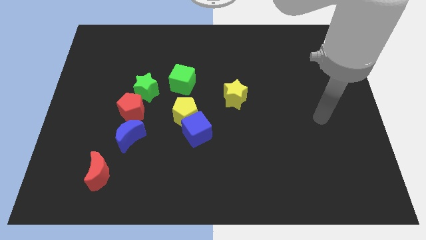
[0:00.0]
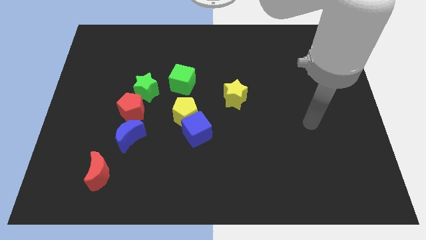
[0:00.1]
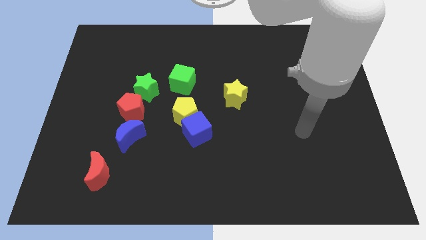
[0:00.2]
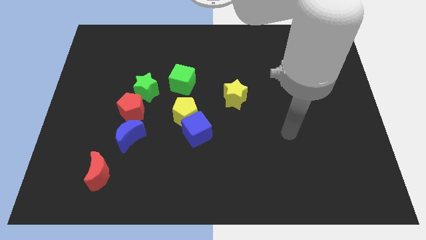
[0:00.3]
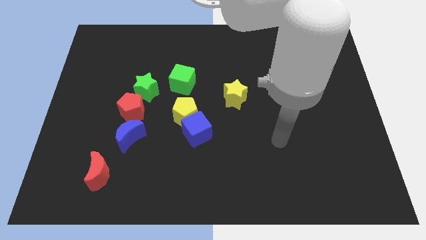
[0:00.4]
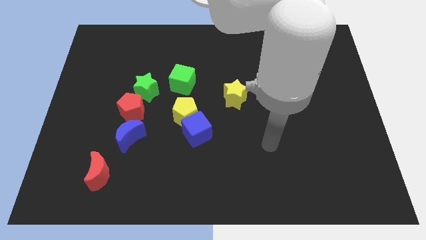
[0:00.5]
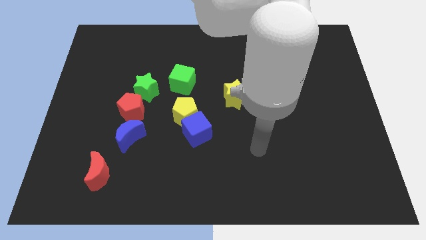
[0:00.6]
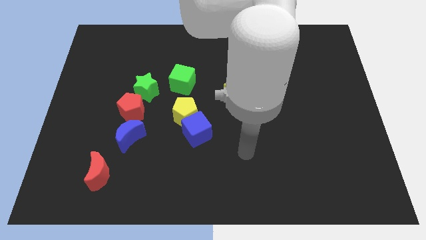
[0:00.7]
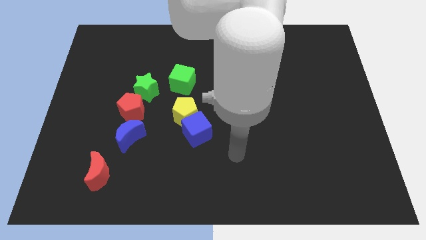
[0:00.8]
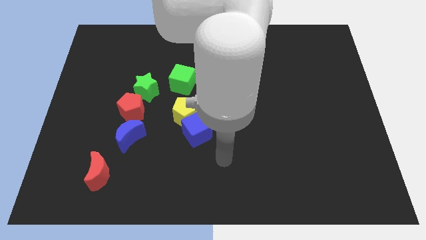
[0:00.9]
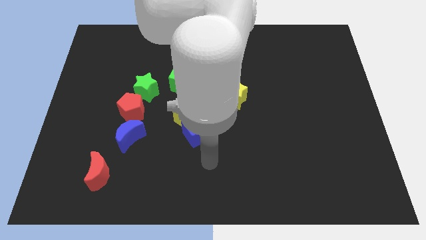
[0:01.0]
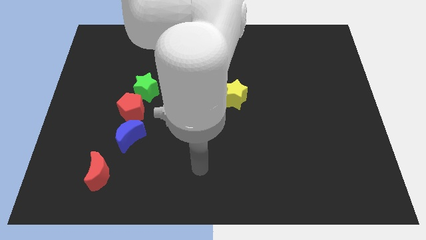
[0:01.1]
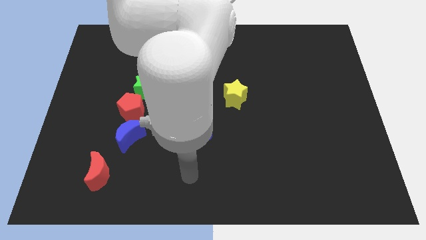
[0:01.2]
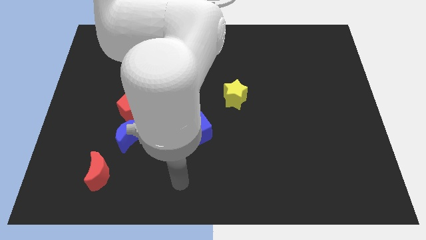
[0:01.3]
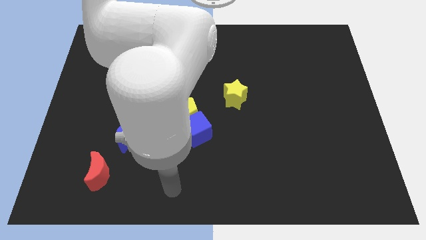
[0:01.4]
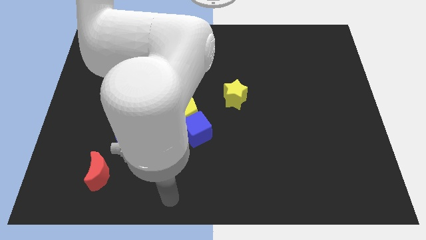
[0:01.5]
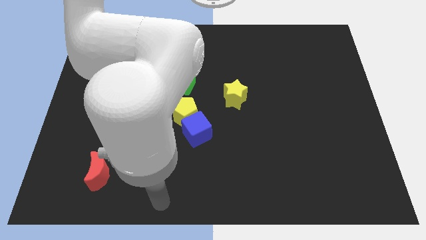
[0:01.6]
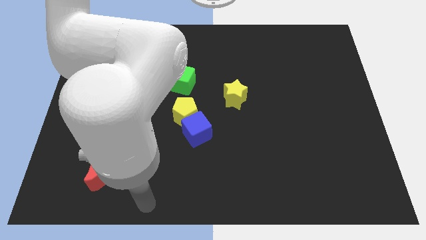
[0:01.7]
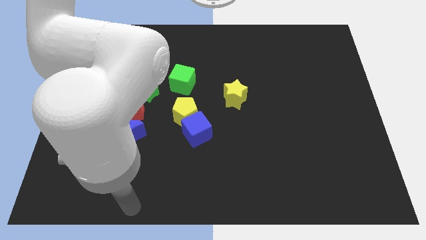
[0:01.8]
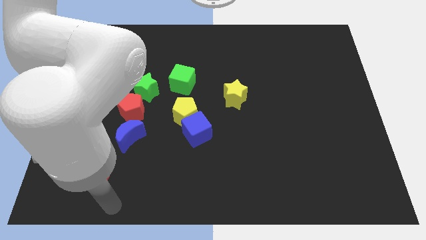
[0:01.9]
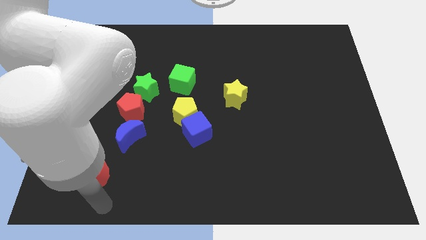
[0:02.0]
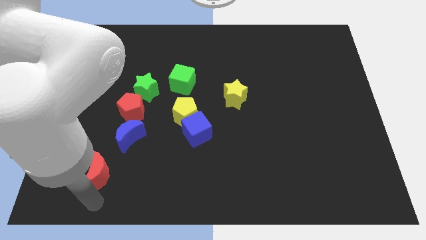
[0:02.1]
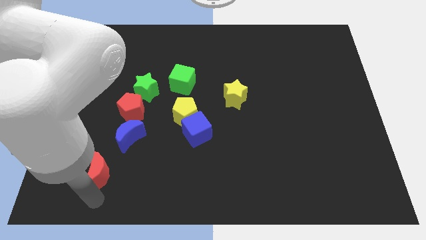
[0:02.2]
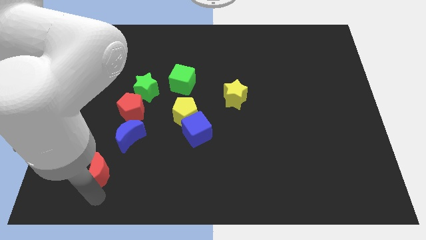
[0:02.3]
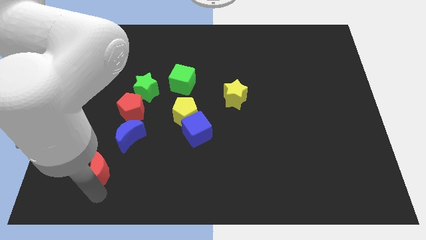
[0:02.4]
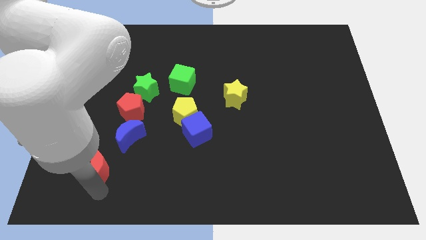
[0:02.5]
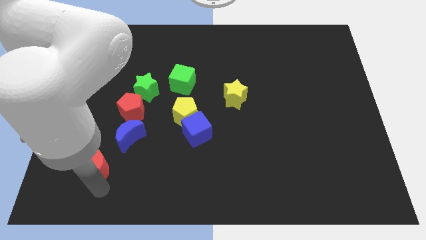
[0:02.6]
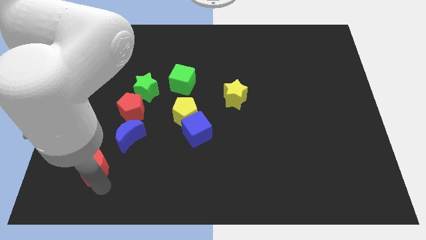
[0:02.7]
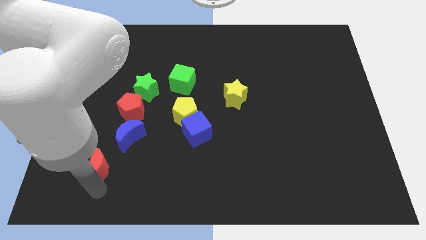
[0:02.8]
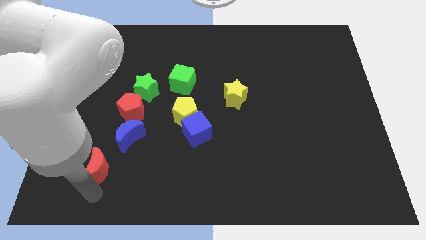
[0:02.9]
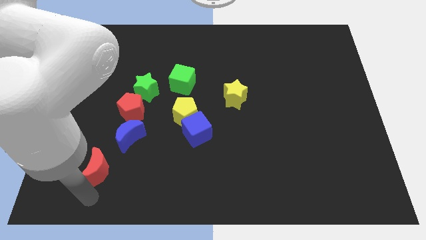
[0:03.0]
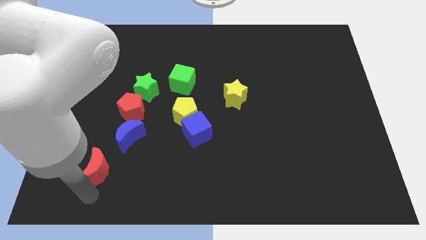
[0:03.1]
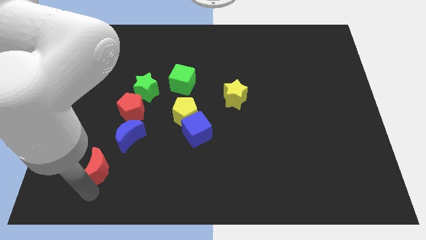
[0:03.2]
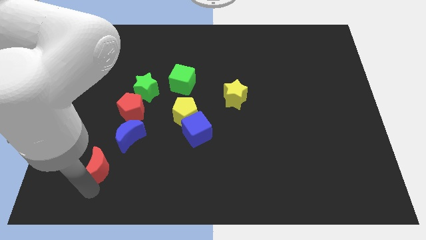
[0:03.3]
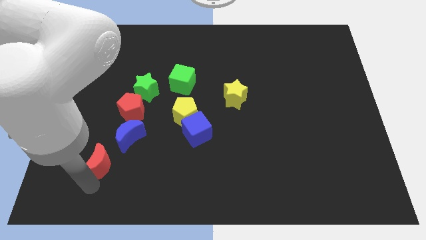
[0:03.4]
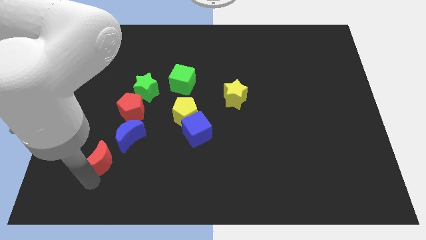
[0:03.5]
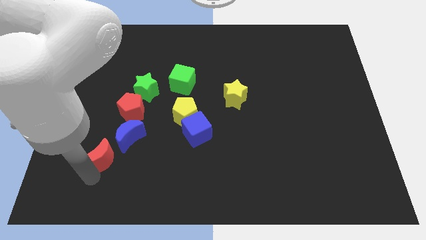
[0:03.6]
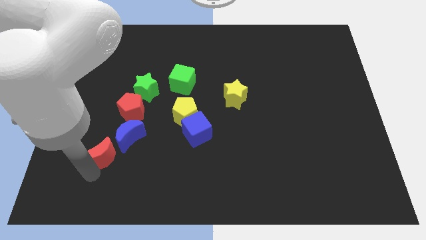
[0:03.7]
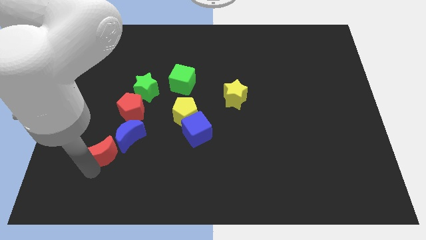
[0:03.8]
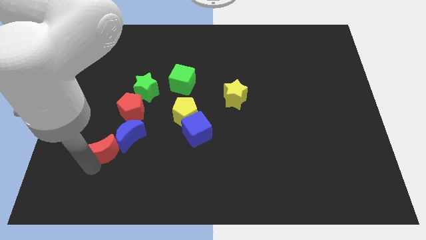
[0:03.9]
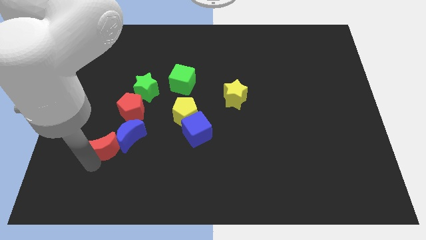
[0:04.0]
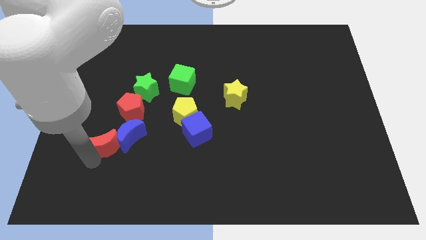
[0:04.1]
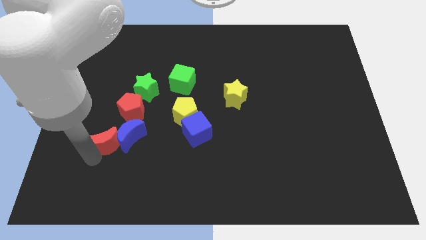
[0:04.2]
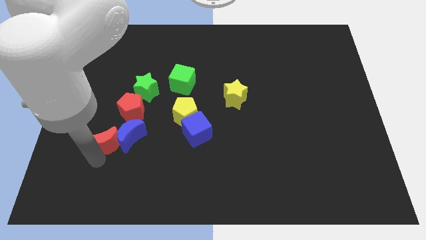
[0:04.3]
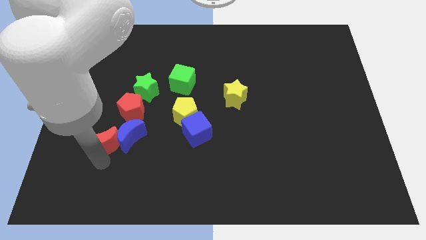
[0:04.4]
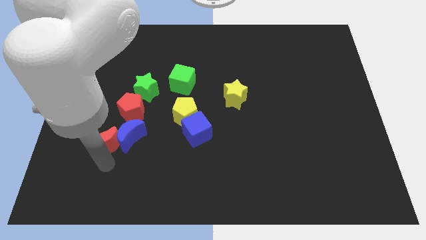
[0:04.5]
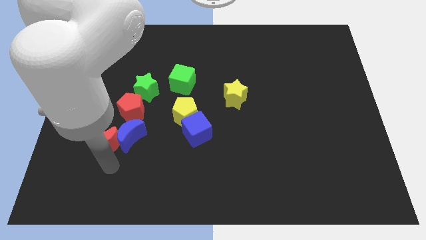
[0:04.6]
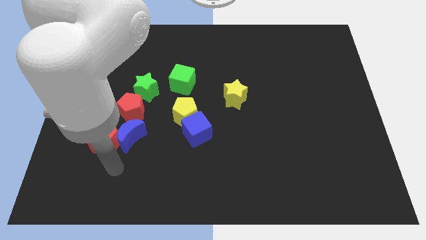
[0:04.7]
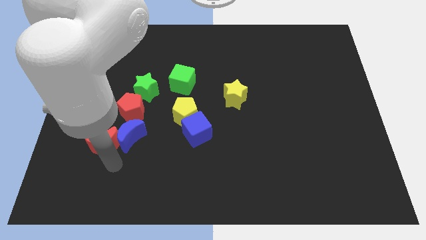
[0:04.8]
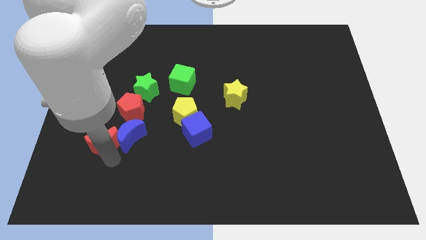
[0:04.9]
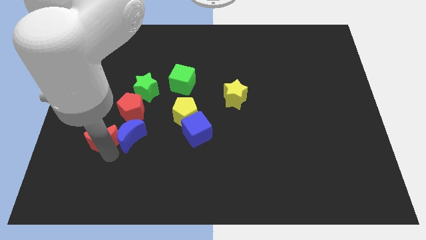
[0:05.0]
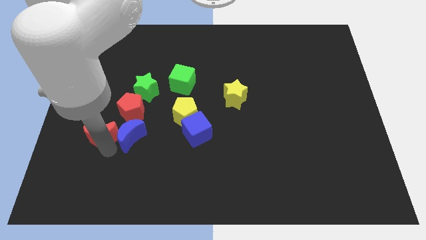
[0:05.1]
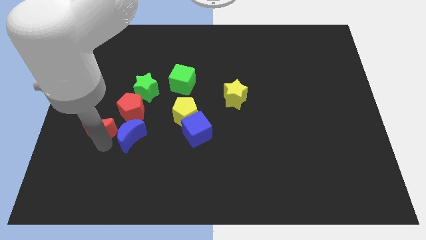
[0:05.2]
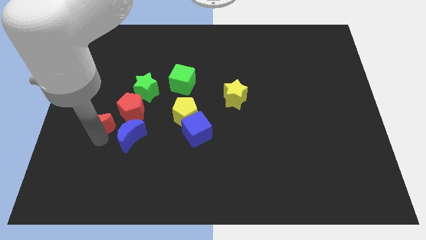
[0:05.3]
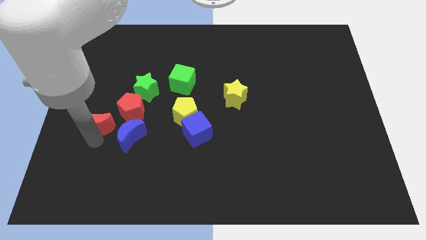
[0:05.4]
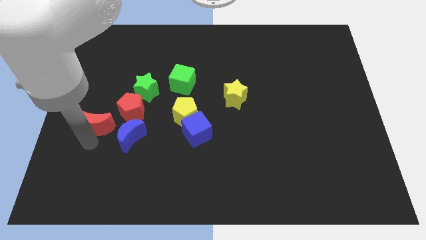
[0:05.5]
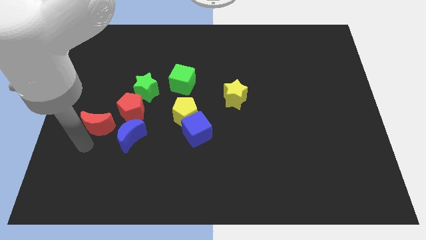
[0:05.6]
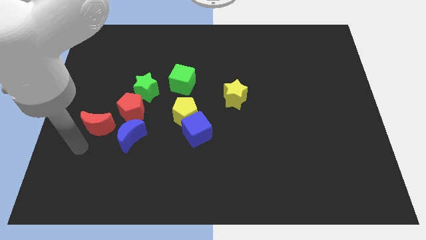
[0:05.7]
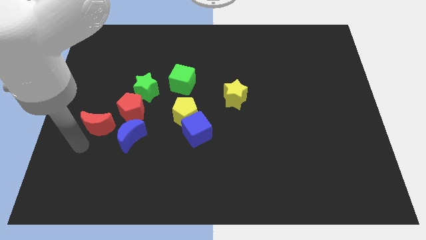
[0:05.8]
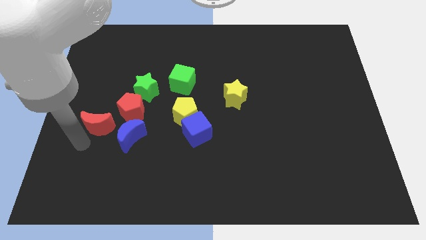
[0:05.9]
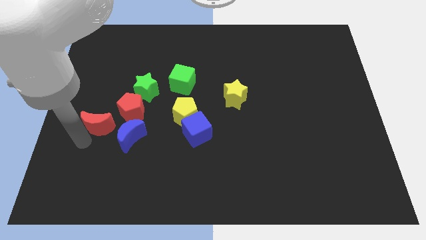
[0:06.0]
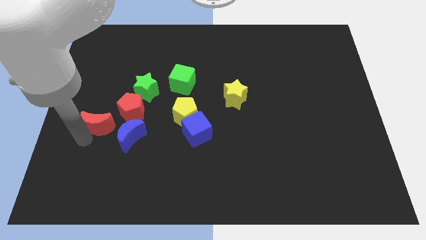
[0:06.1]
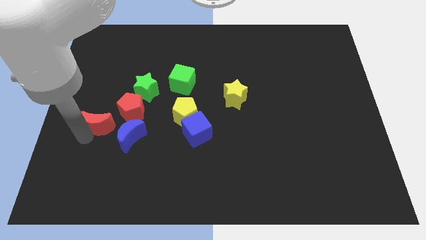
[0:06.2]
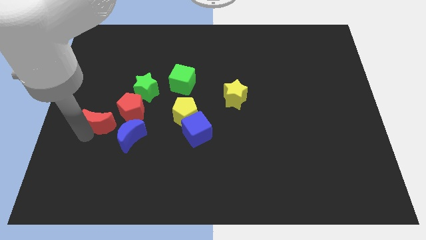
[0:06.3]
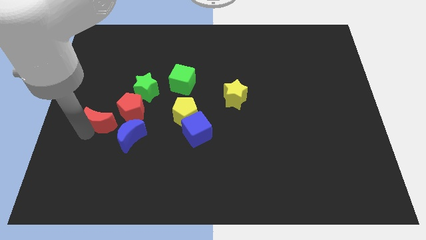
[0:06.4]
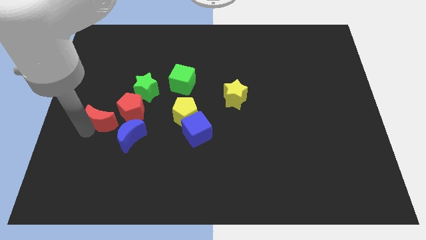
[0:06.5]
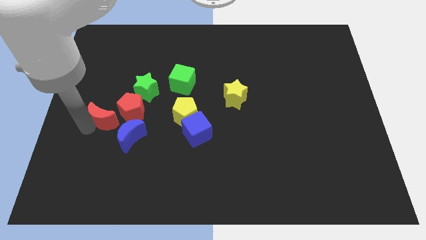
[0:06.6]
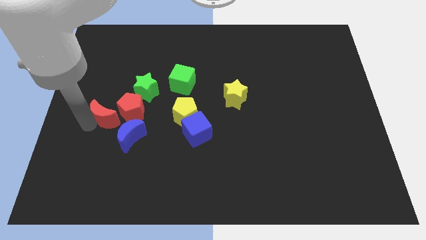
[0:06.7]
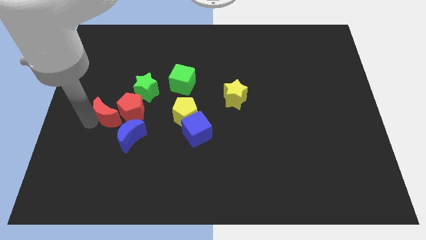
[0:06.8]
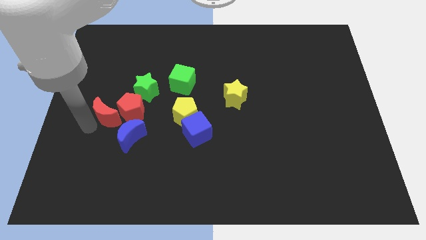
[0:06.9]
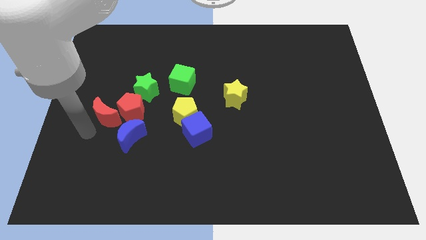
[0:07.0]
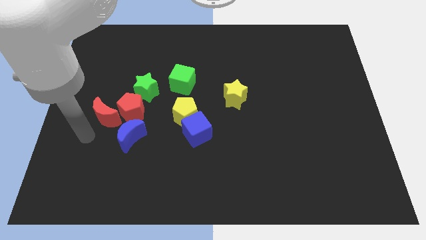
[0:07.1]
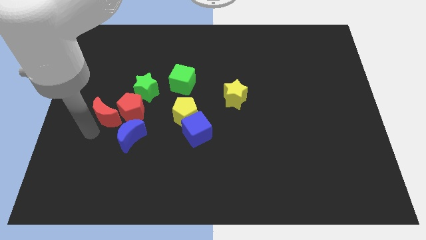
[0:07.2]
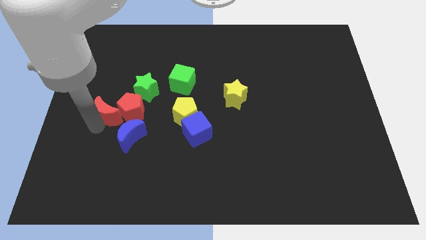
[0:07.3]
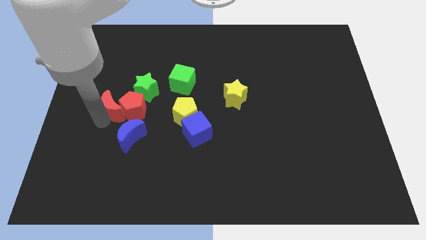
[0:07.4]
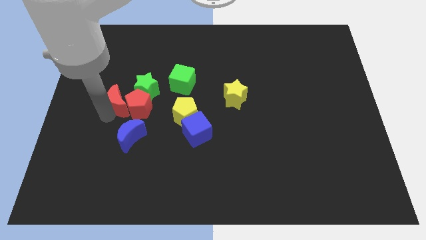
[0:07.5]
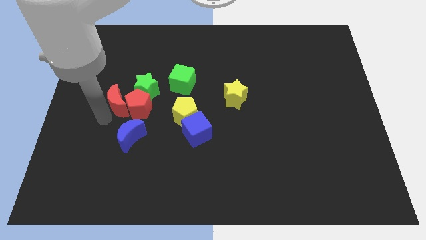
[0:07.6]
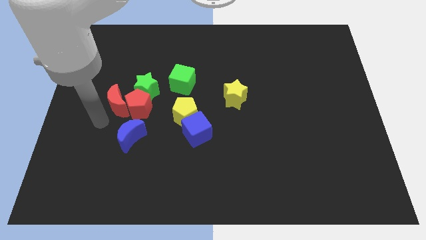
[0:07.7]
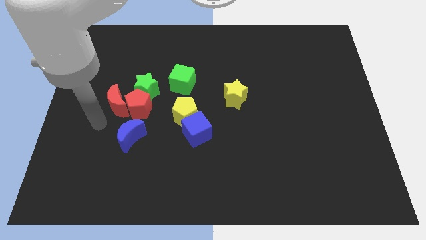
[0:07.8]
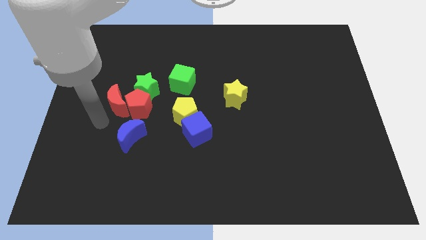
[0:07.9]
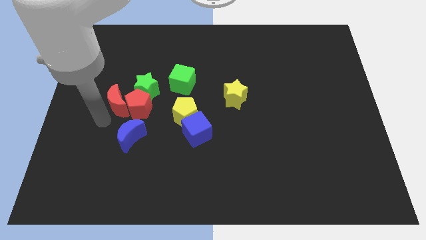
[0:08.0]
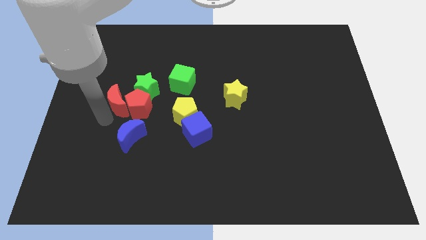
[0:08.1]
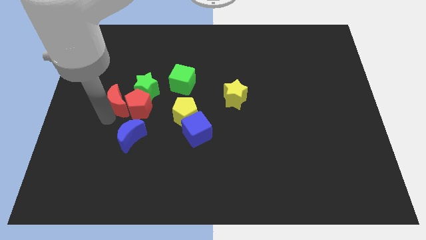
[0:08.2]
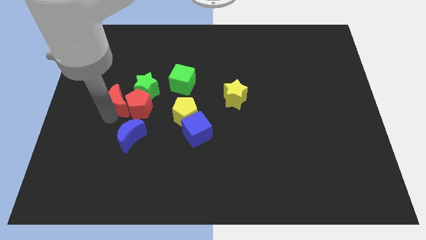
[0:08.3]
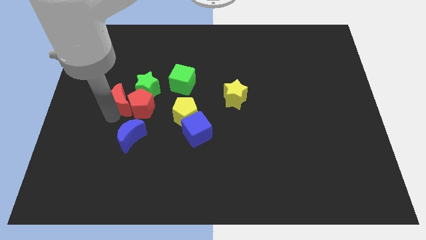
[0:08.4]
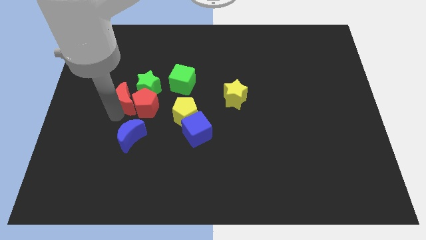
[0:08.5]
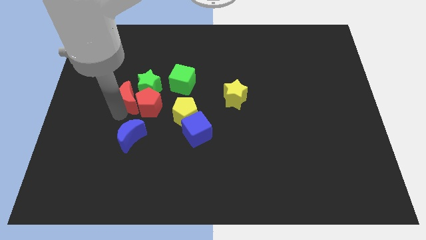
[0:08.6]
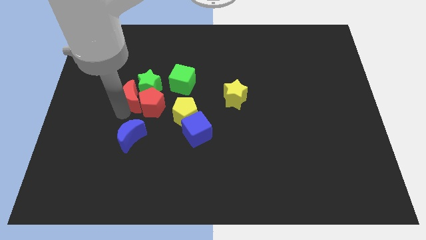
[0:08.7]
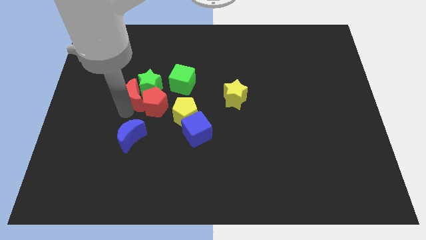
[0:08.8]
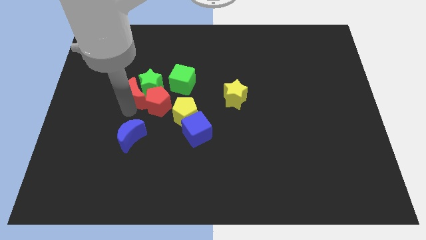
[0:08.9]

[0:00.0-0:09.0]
put the red moon left of the green cube
